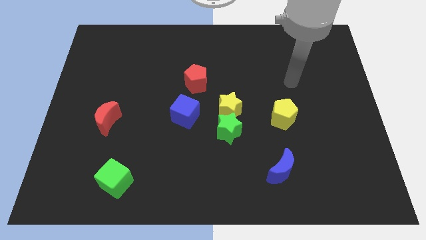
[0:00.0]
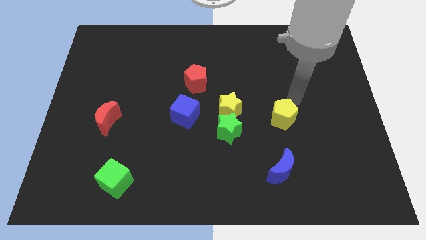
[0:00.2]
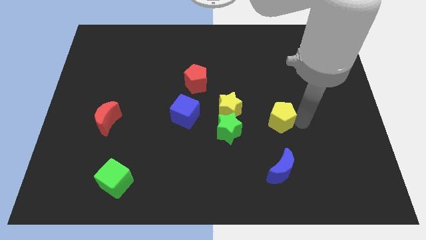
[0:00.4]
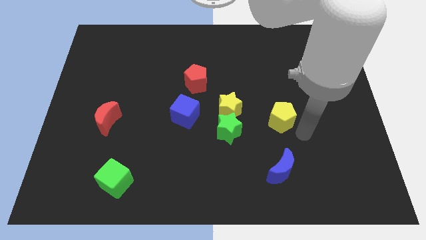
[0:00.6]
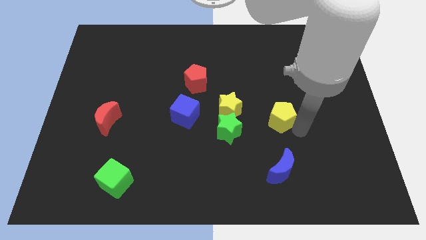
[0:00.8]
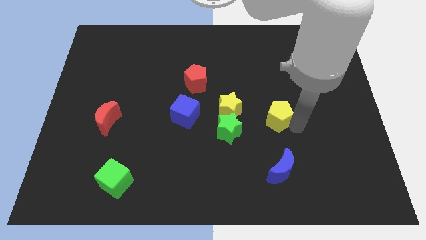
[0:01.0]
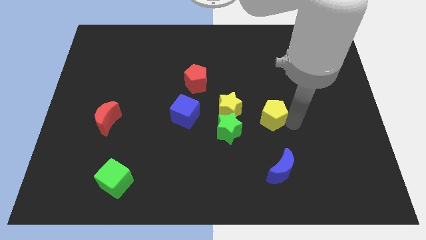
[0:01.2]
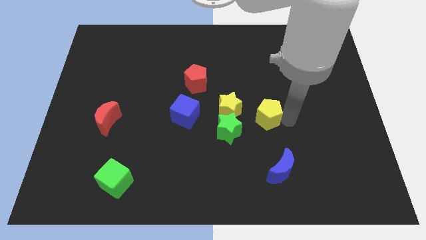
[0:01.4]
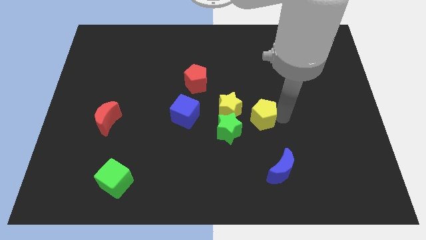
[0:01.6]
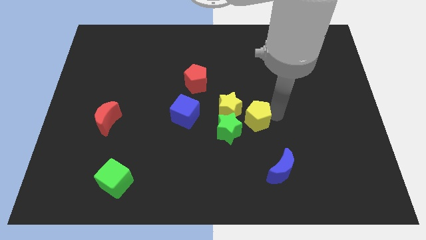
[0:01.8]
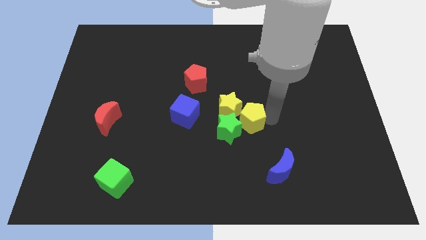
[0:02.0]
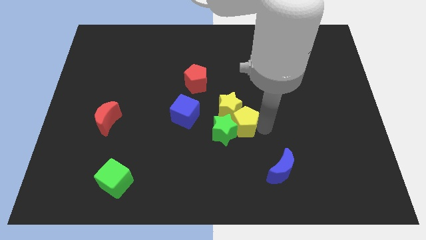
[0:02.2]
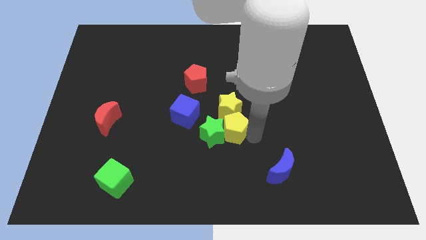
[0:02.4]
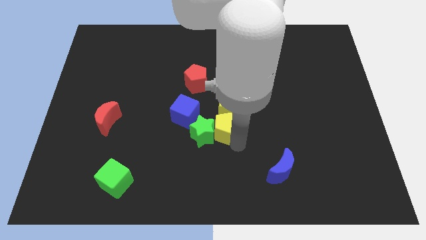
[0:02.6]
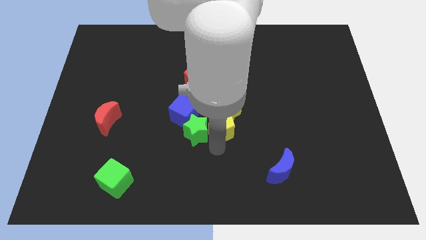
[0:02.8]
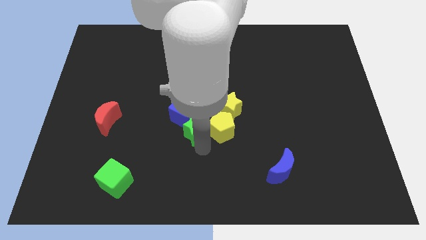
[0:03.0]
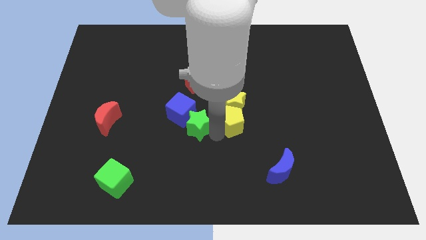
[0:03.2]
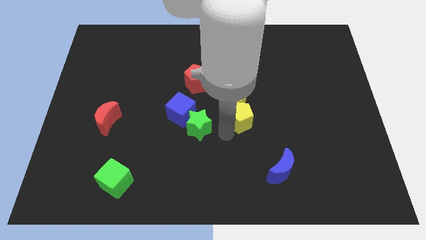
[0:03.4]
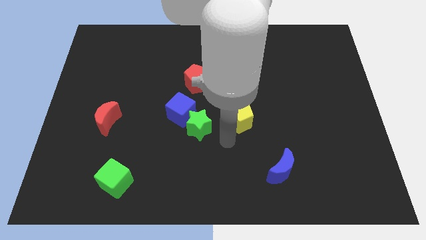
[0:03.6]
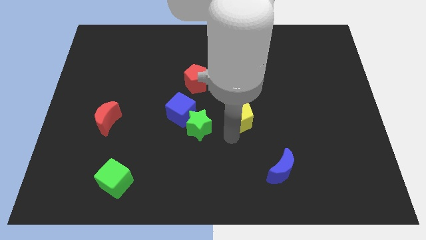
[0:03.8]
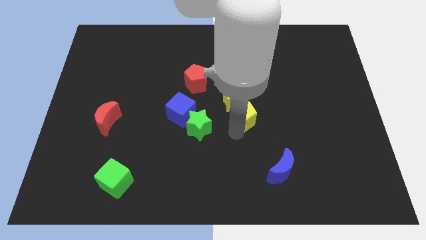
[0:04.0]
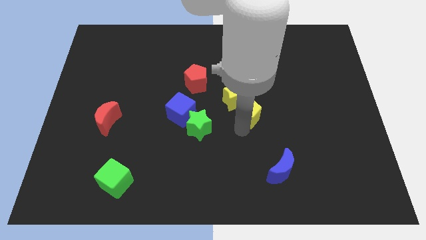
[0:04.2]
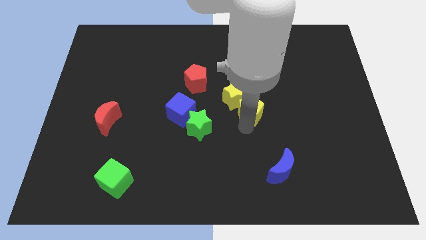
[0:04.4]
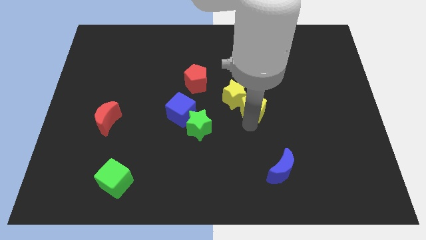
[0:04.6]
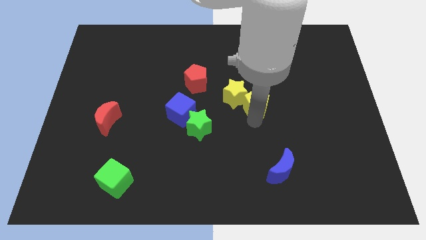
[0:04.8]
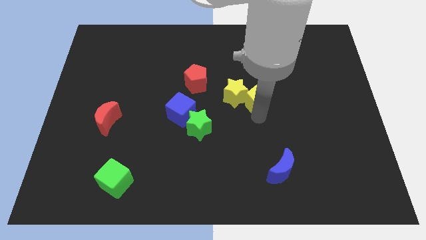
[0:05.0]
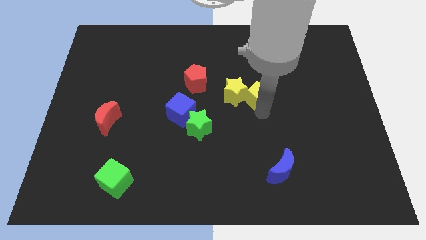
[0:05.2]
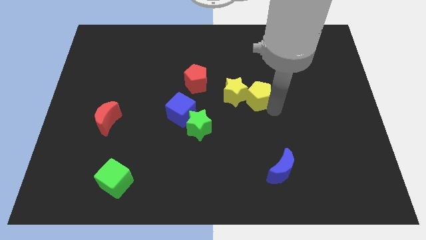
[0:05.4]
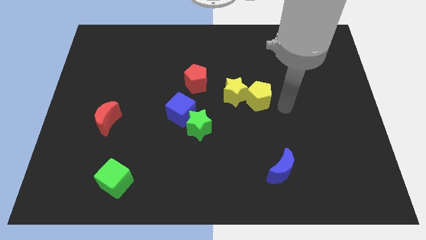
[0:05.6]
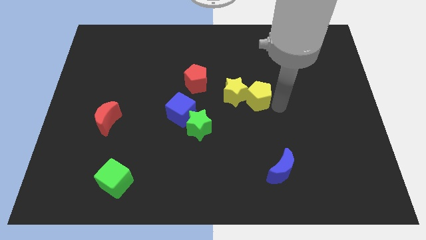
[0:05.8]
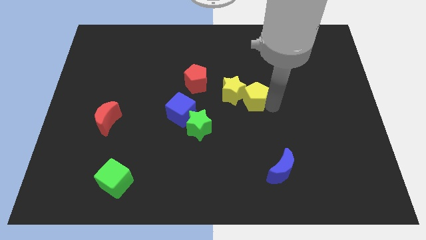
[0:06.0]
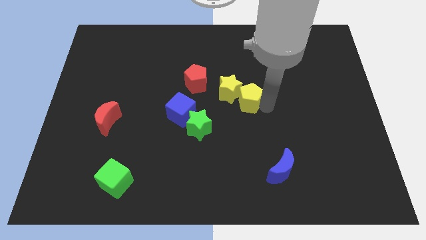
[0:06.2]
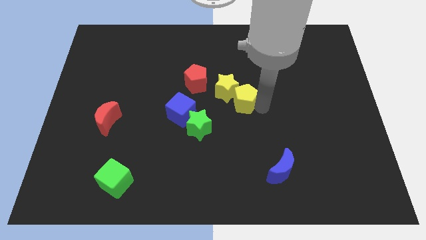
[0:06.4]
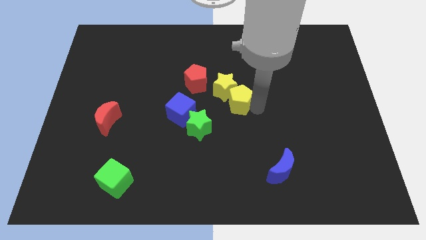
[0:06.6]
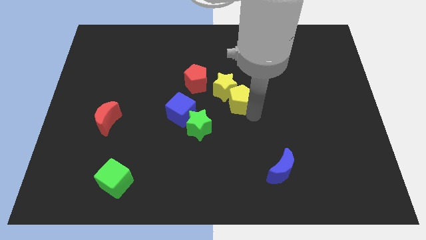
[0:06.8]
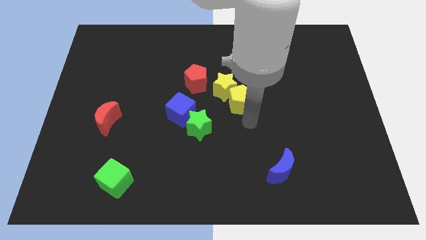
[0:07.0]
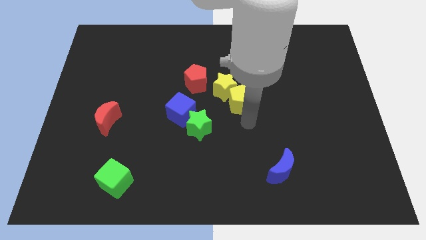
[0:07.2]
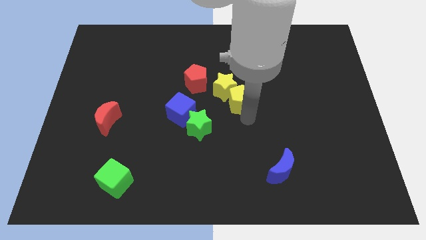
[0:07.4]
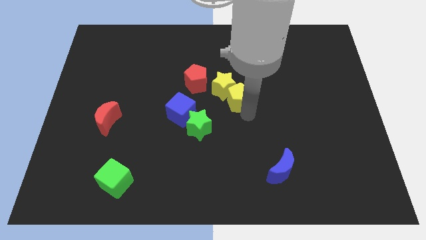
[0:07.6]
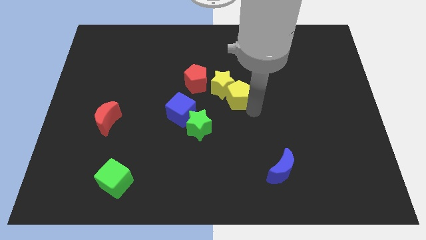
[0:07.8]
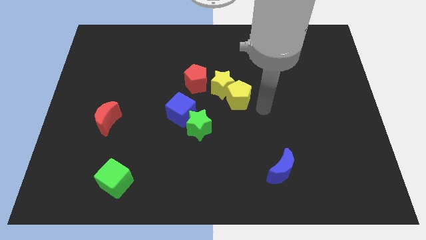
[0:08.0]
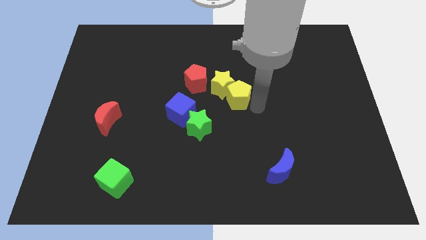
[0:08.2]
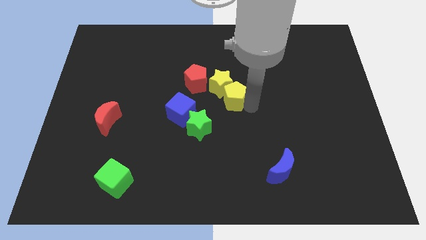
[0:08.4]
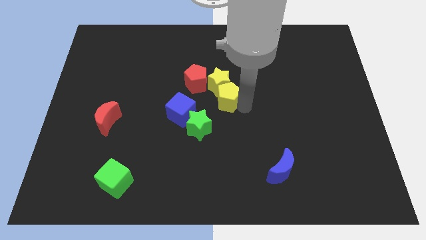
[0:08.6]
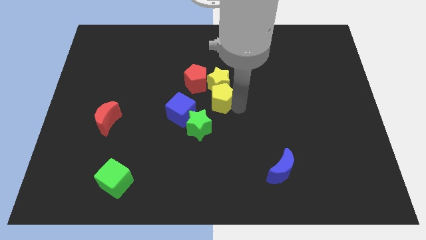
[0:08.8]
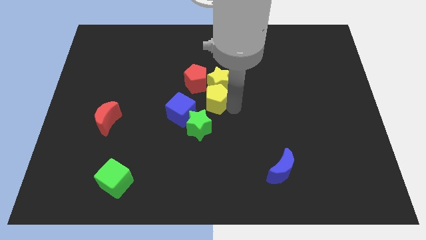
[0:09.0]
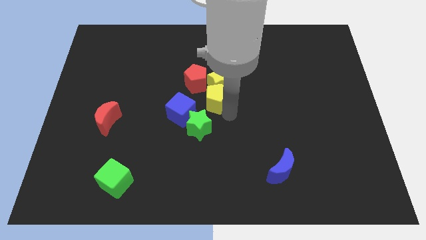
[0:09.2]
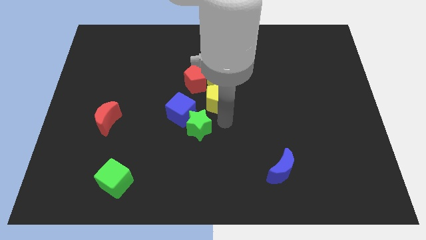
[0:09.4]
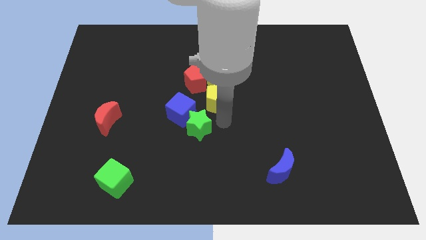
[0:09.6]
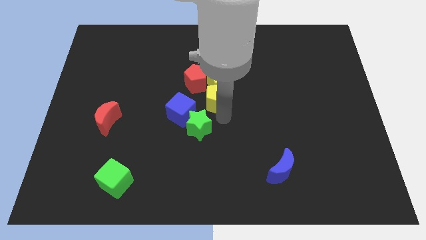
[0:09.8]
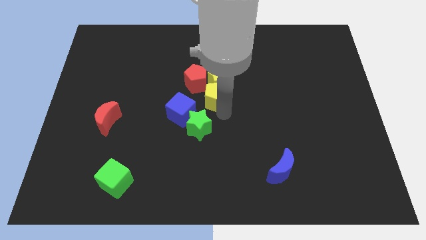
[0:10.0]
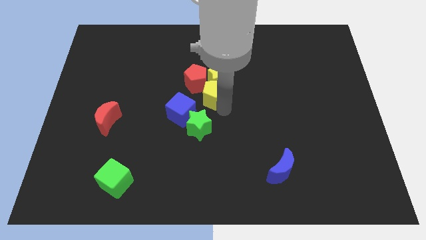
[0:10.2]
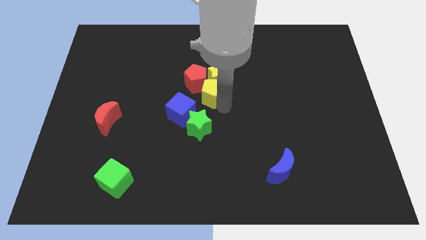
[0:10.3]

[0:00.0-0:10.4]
move the yellow pentagon next to the red pentagon

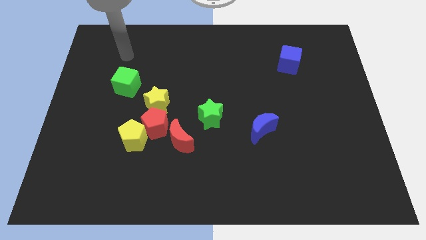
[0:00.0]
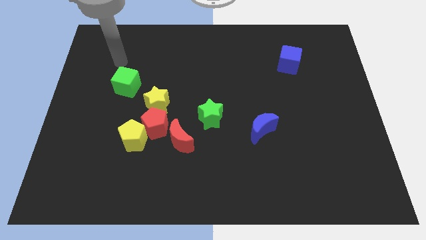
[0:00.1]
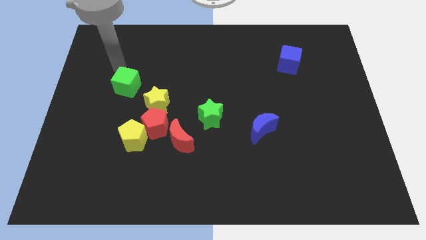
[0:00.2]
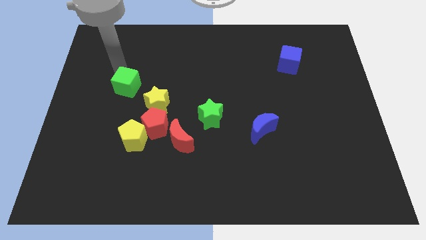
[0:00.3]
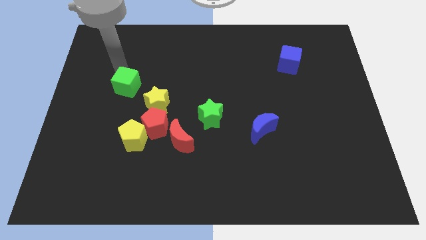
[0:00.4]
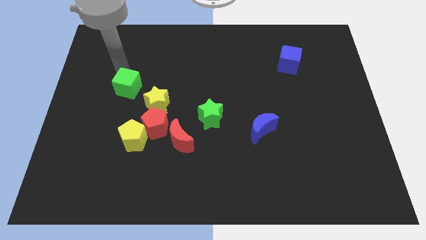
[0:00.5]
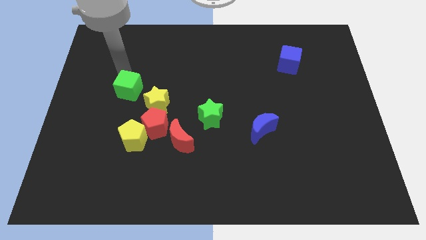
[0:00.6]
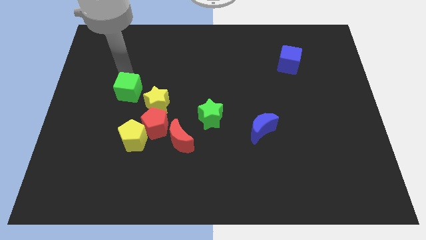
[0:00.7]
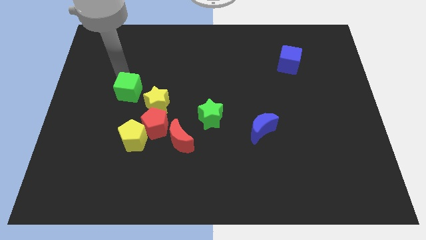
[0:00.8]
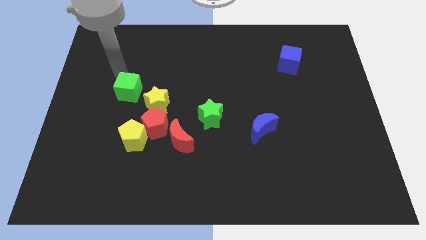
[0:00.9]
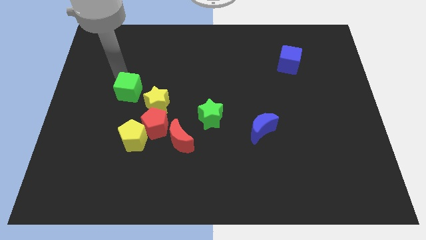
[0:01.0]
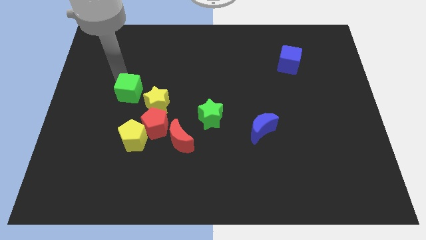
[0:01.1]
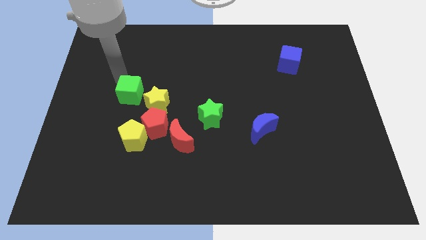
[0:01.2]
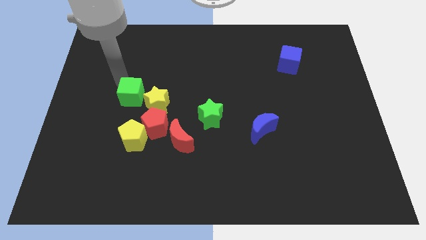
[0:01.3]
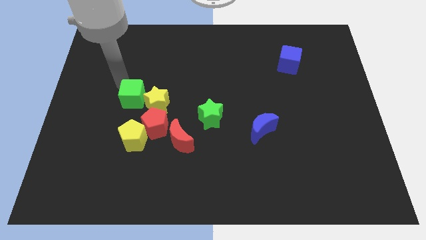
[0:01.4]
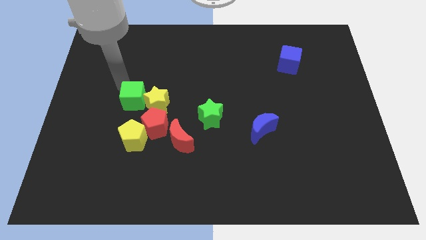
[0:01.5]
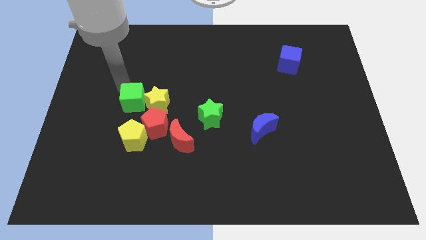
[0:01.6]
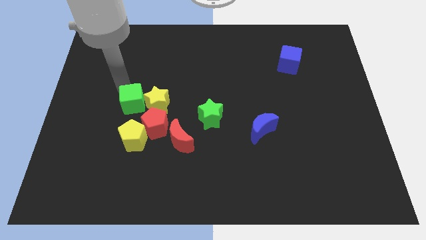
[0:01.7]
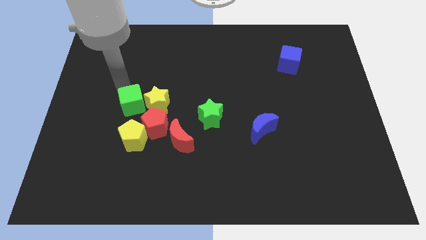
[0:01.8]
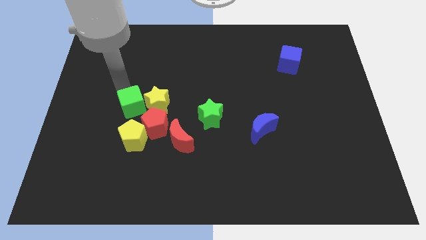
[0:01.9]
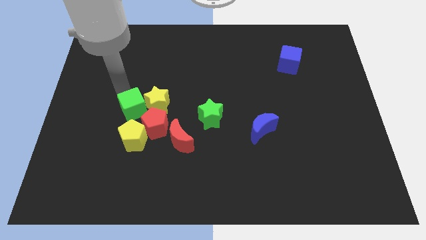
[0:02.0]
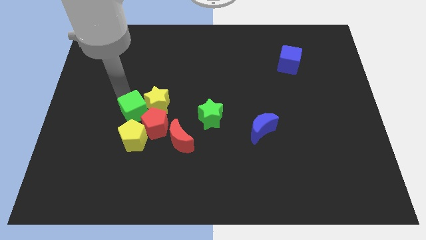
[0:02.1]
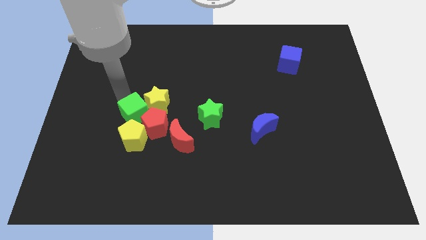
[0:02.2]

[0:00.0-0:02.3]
push the green cube close to the red pentagon
